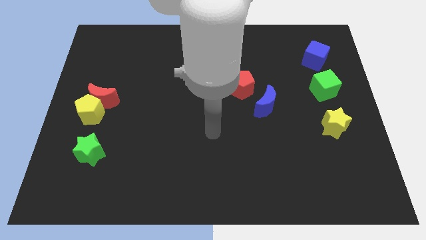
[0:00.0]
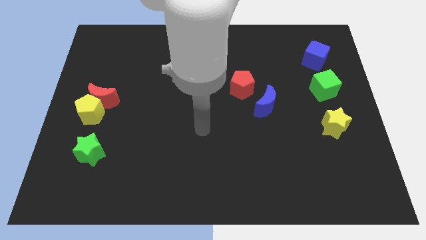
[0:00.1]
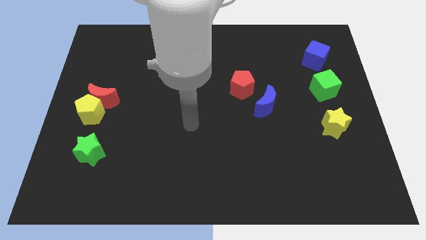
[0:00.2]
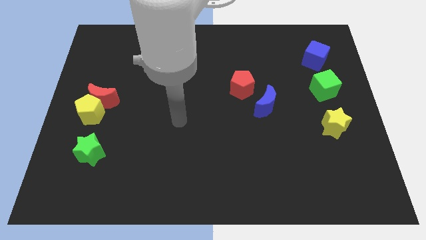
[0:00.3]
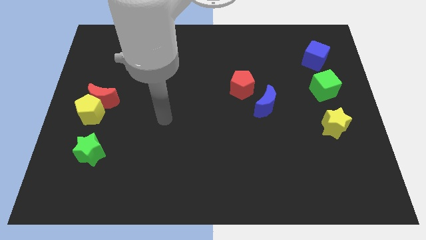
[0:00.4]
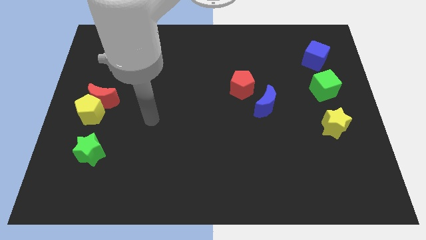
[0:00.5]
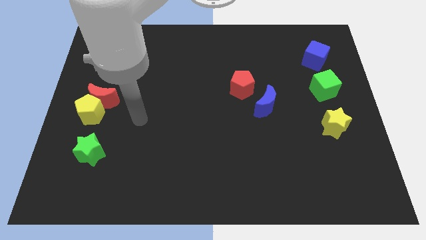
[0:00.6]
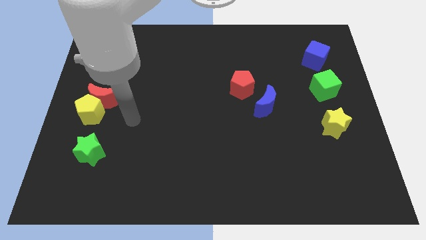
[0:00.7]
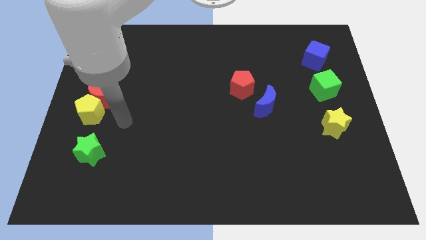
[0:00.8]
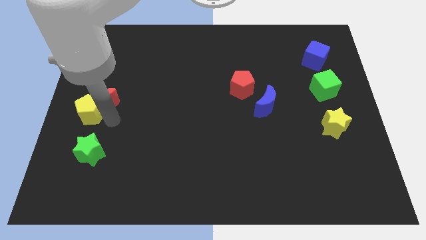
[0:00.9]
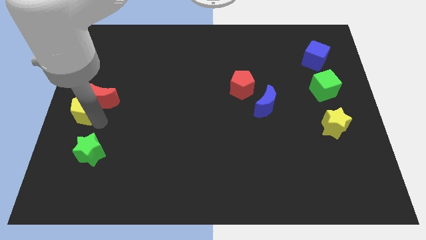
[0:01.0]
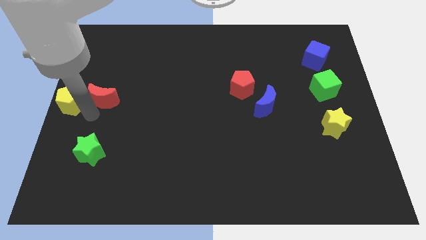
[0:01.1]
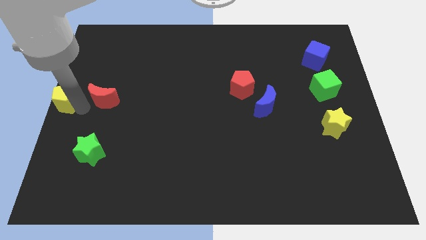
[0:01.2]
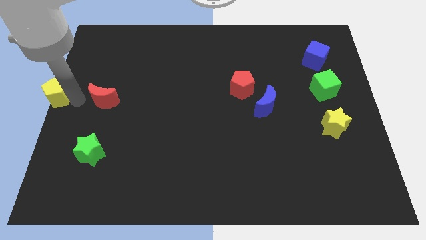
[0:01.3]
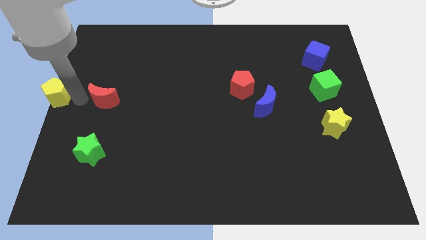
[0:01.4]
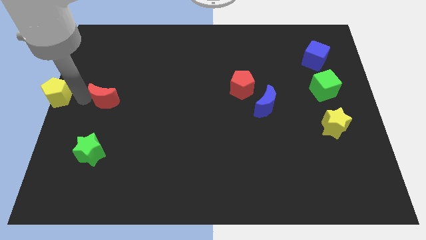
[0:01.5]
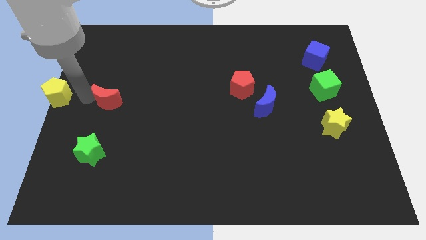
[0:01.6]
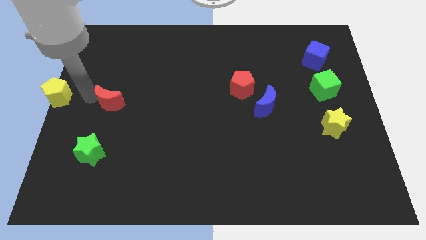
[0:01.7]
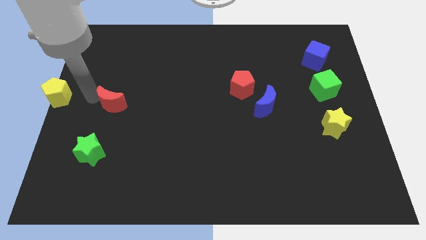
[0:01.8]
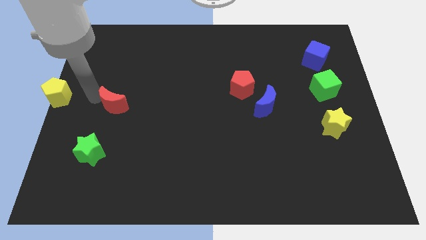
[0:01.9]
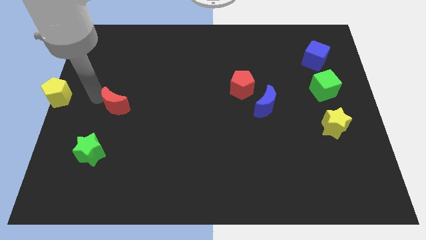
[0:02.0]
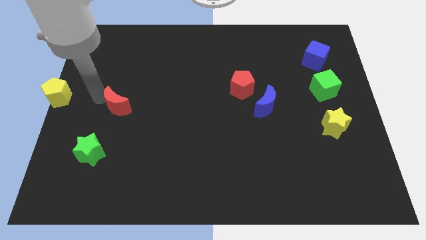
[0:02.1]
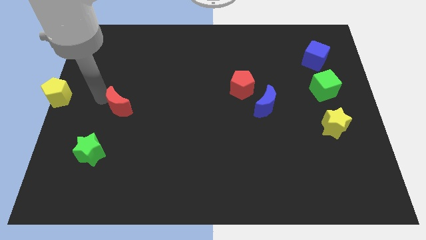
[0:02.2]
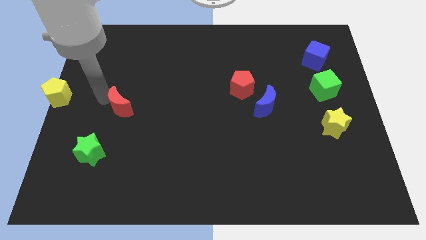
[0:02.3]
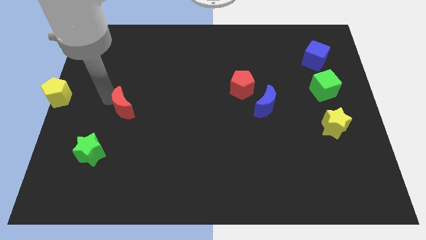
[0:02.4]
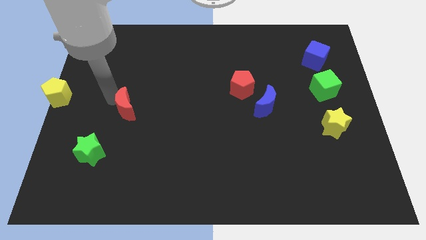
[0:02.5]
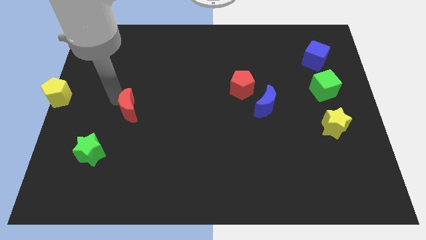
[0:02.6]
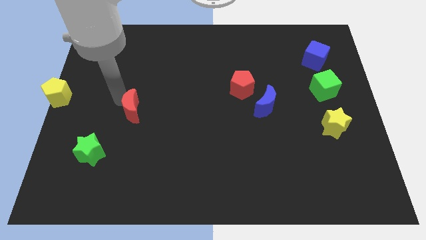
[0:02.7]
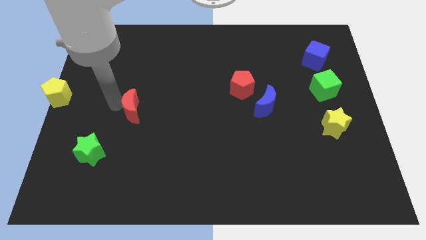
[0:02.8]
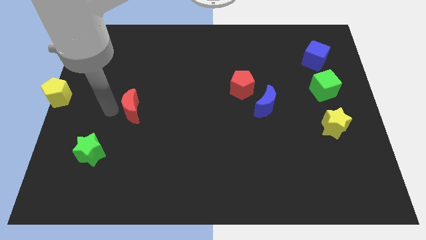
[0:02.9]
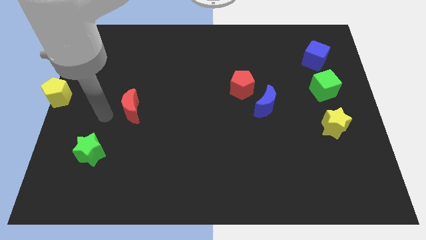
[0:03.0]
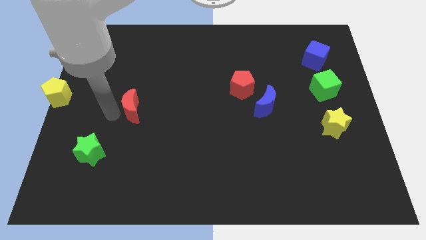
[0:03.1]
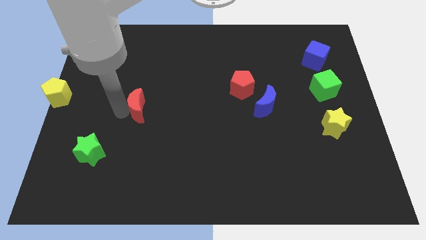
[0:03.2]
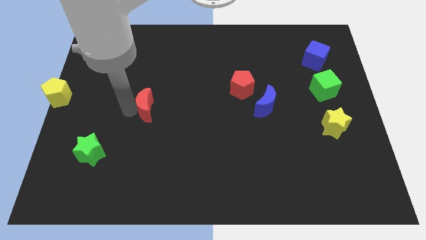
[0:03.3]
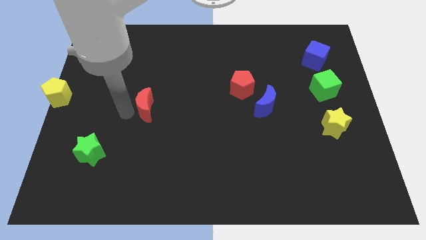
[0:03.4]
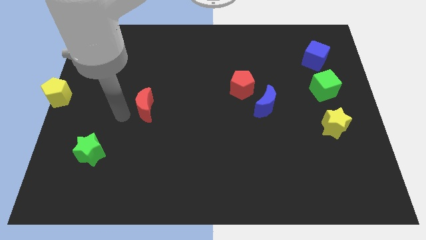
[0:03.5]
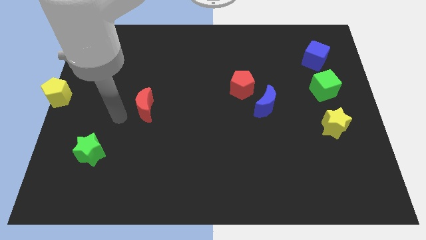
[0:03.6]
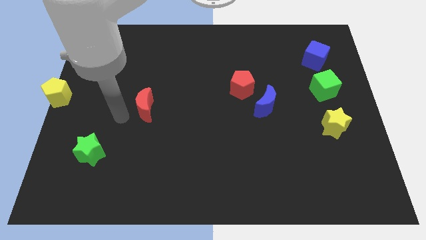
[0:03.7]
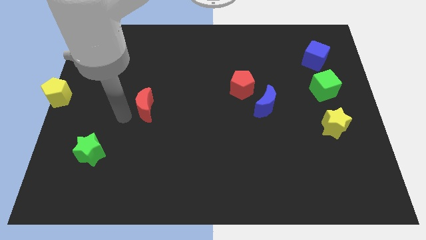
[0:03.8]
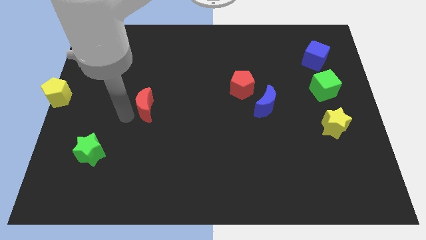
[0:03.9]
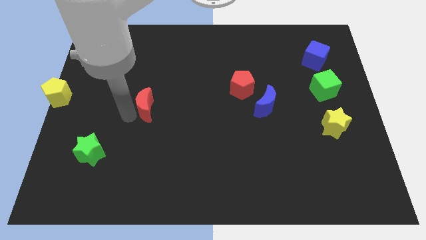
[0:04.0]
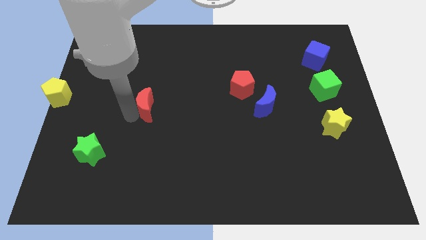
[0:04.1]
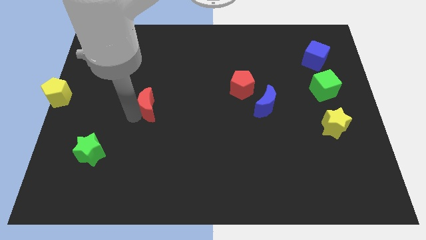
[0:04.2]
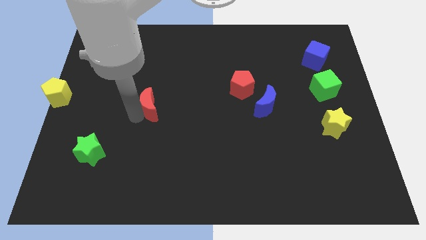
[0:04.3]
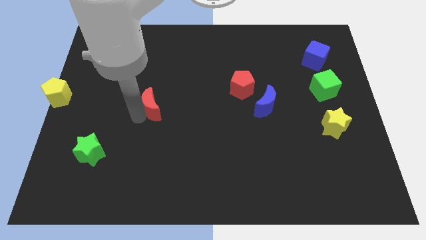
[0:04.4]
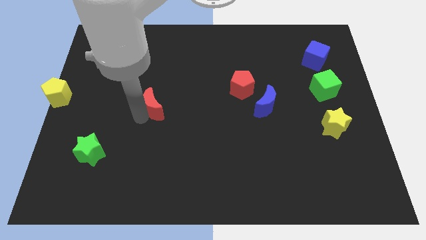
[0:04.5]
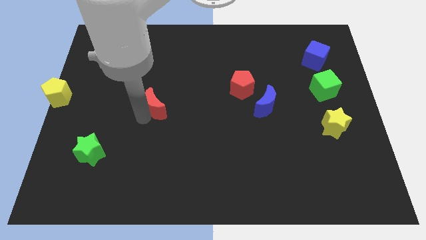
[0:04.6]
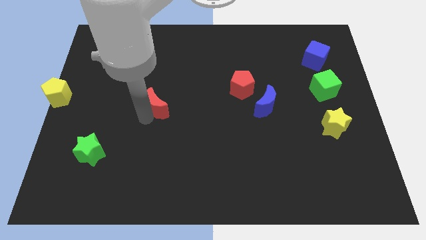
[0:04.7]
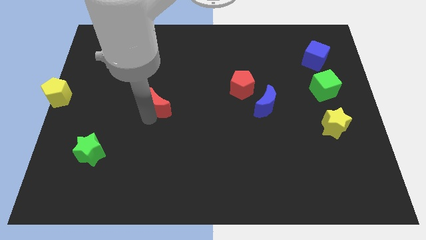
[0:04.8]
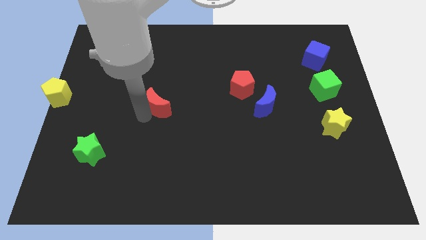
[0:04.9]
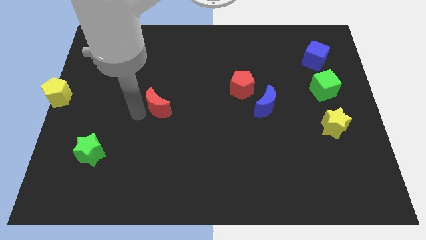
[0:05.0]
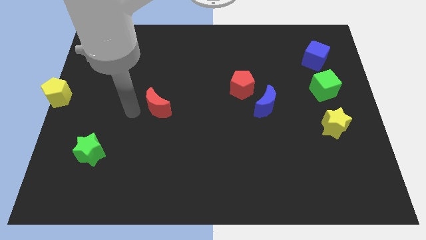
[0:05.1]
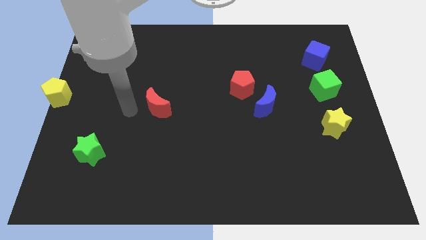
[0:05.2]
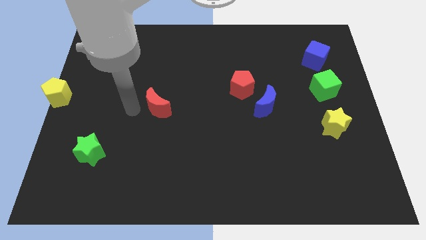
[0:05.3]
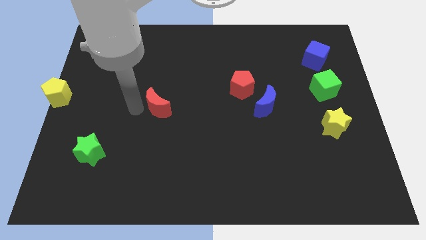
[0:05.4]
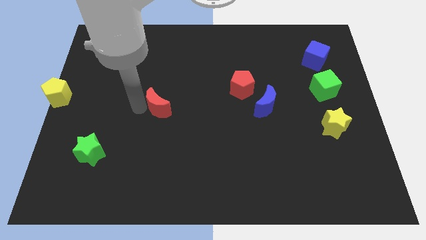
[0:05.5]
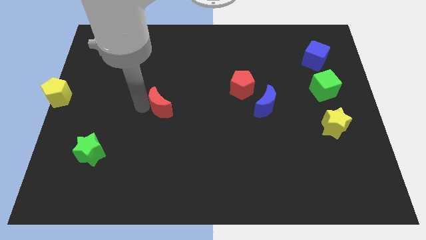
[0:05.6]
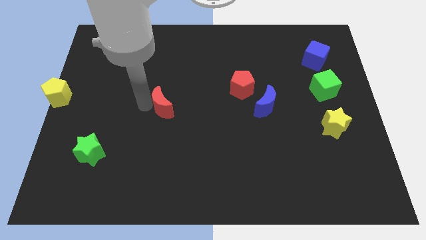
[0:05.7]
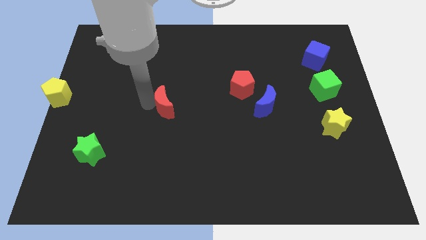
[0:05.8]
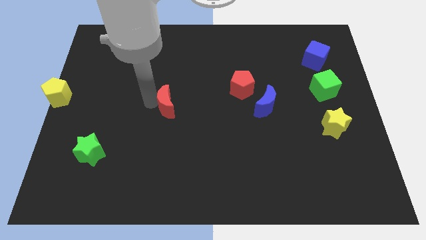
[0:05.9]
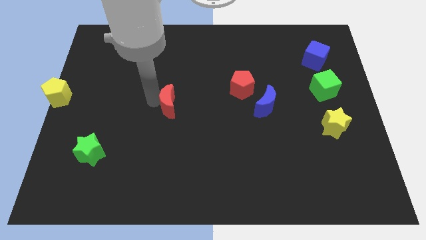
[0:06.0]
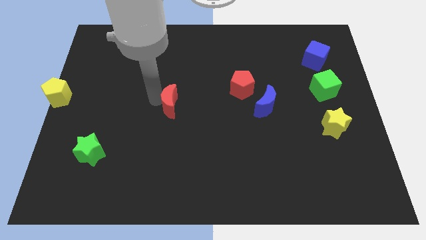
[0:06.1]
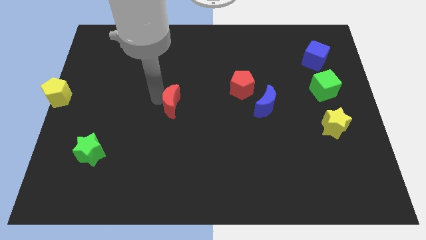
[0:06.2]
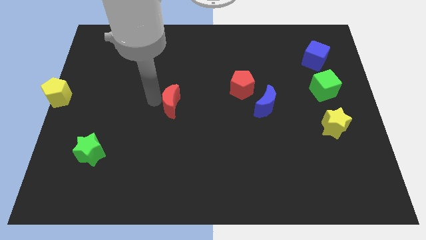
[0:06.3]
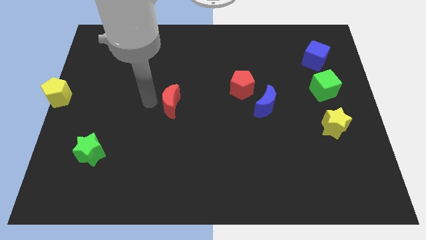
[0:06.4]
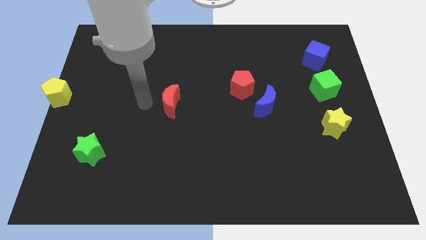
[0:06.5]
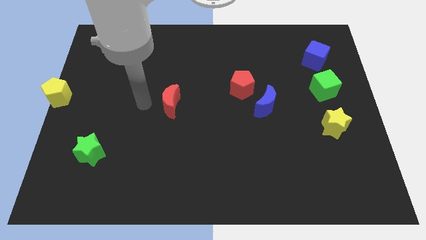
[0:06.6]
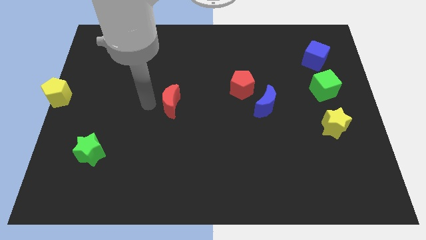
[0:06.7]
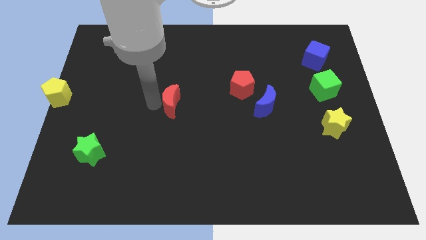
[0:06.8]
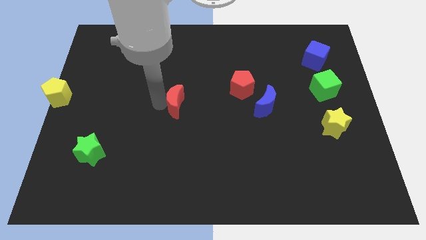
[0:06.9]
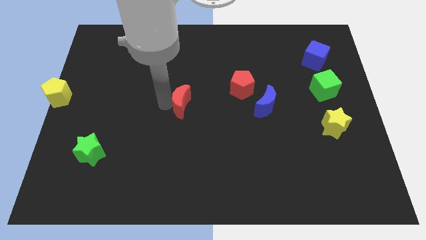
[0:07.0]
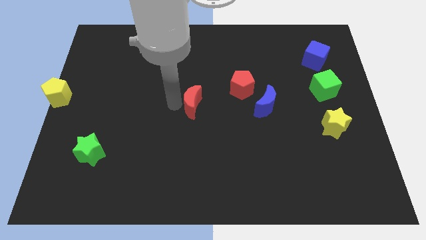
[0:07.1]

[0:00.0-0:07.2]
move the red moon to the right

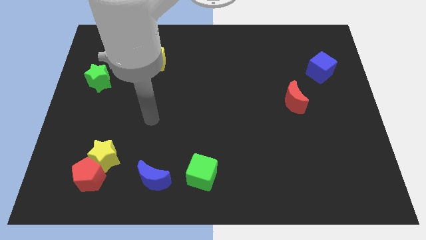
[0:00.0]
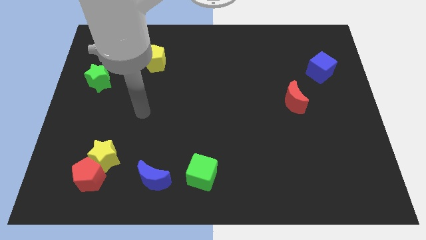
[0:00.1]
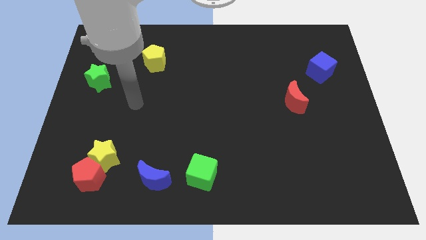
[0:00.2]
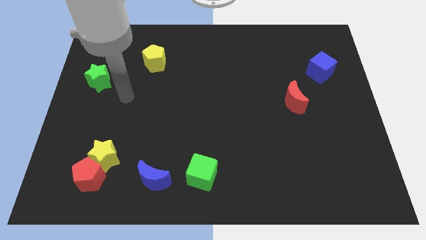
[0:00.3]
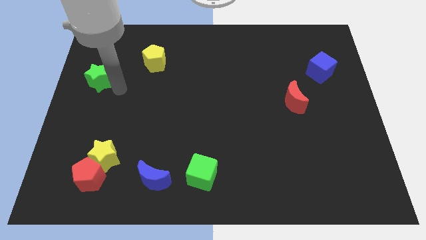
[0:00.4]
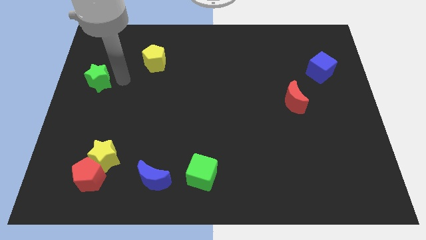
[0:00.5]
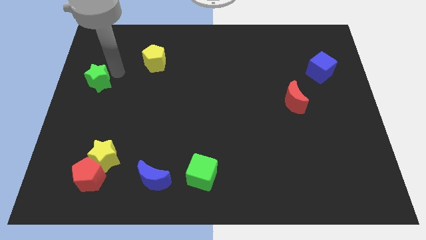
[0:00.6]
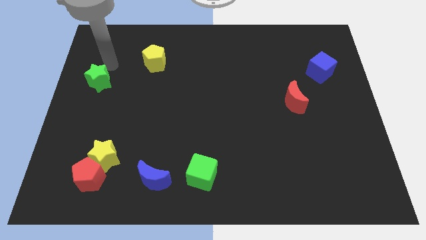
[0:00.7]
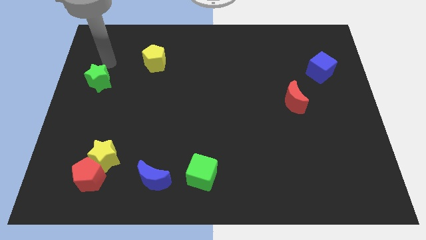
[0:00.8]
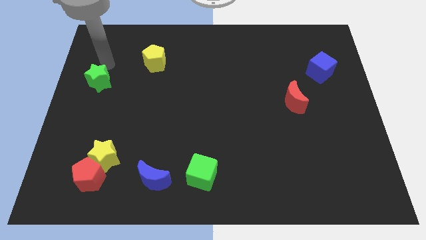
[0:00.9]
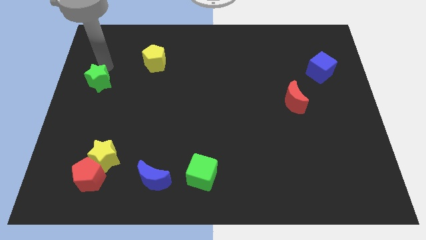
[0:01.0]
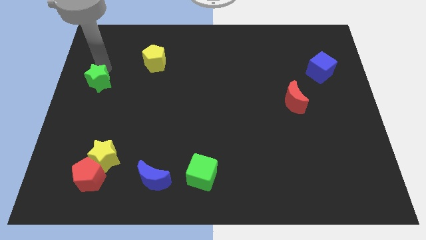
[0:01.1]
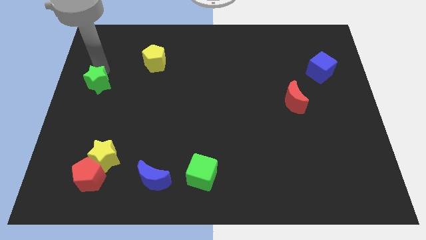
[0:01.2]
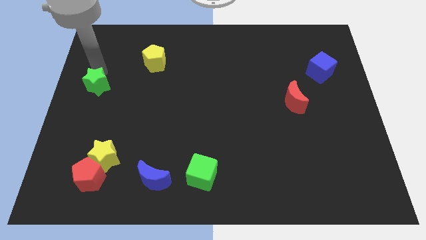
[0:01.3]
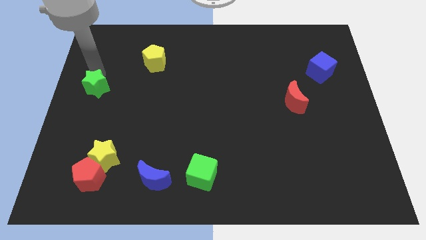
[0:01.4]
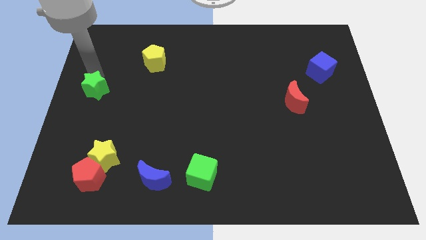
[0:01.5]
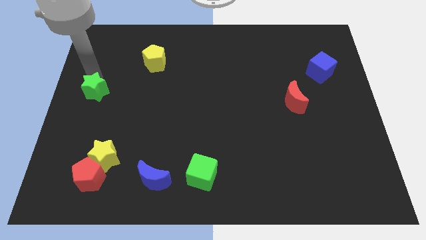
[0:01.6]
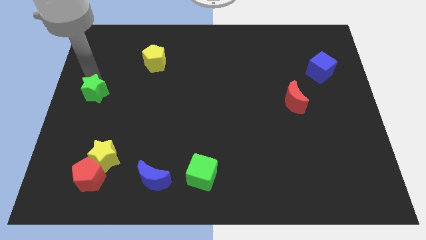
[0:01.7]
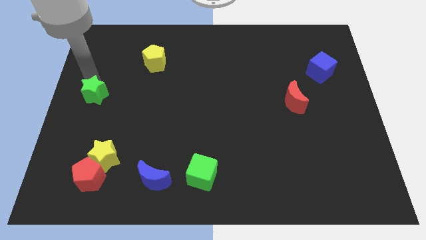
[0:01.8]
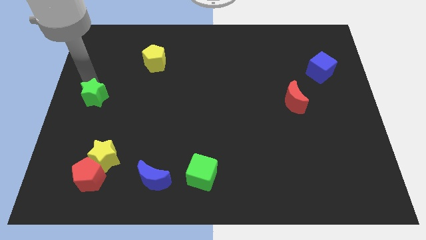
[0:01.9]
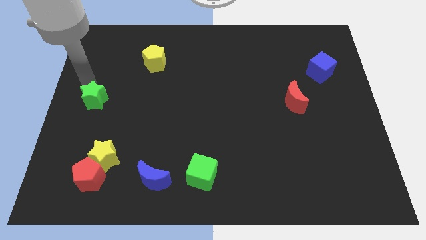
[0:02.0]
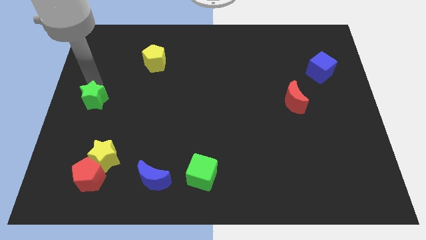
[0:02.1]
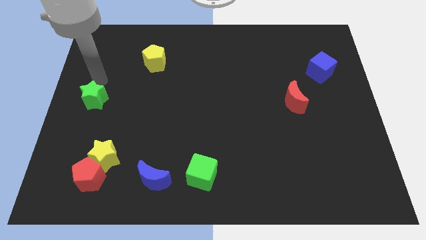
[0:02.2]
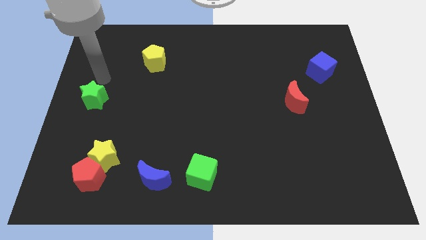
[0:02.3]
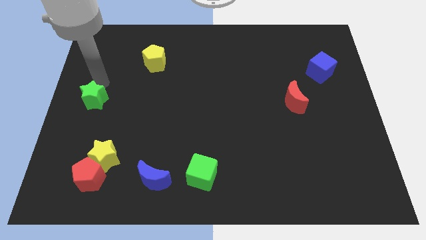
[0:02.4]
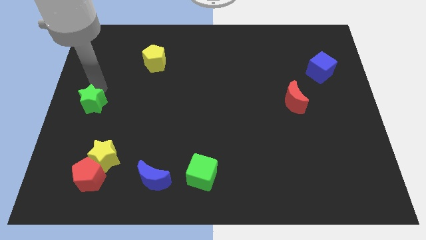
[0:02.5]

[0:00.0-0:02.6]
slightly slide the green star downwards
